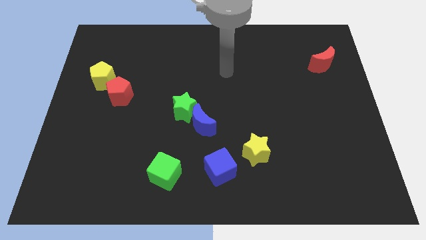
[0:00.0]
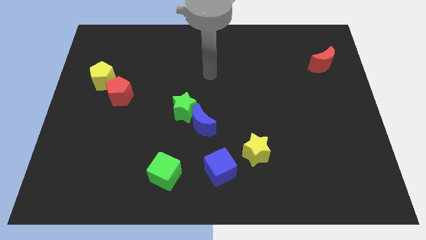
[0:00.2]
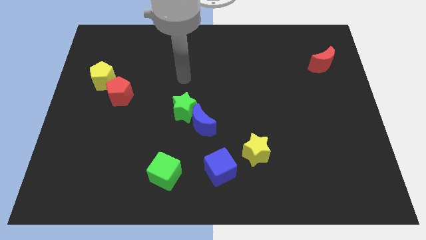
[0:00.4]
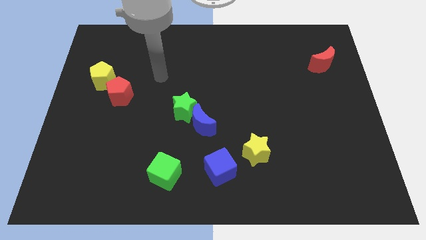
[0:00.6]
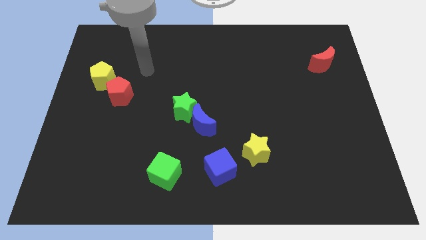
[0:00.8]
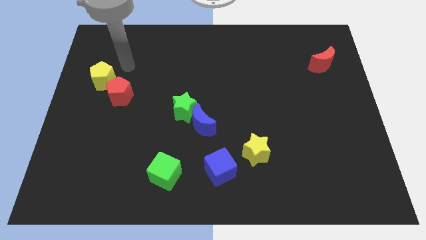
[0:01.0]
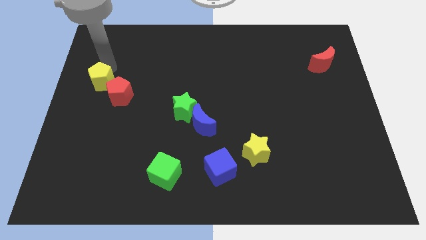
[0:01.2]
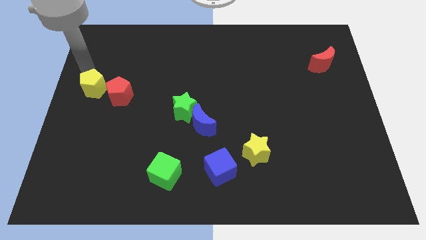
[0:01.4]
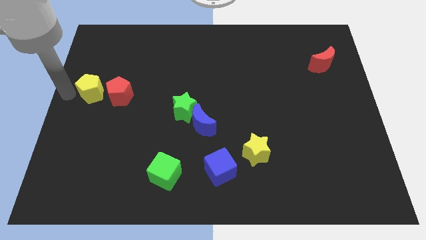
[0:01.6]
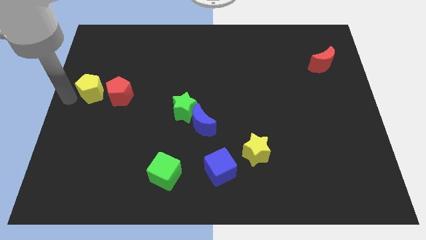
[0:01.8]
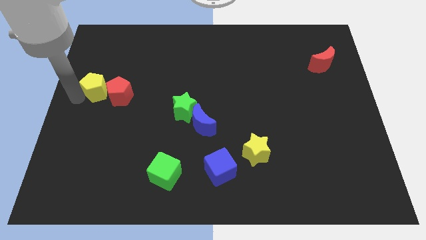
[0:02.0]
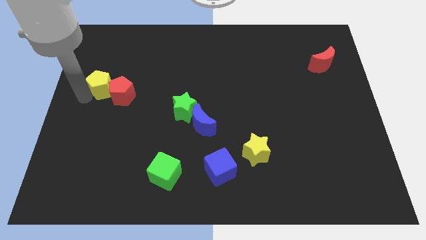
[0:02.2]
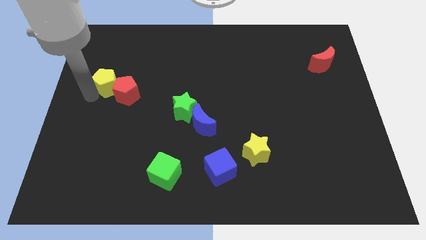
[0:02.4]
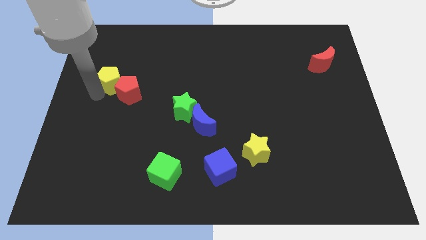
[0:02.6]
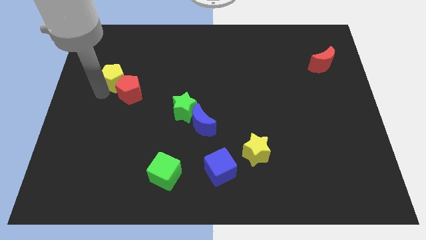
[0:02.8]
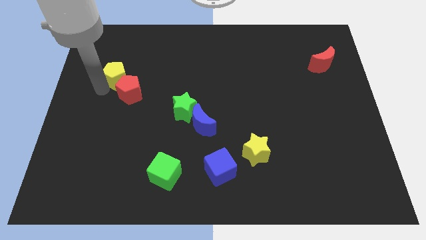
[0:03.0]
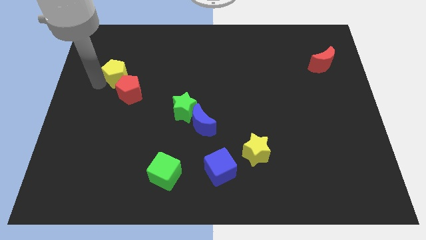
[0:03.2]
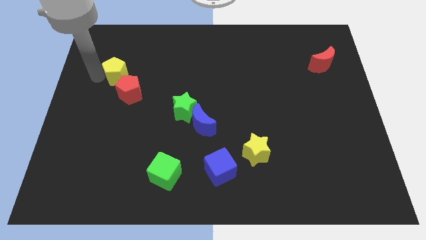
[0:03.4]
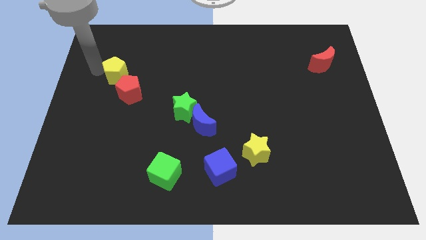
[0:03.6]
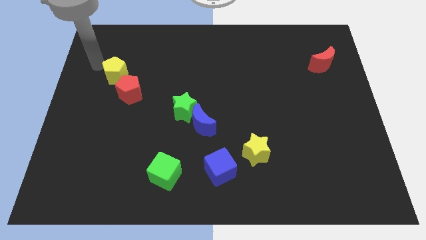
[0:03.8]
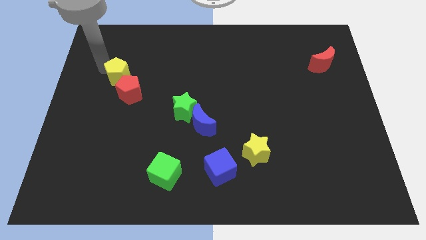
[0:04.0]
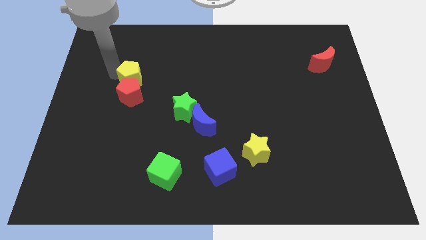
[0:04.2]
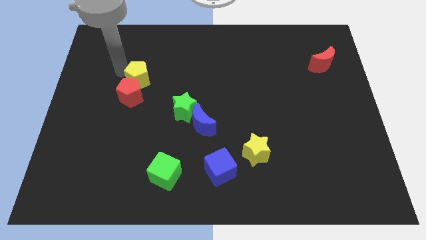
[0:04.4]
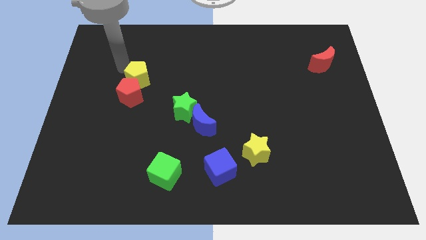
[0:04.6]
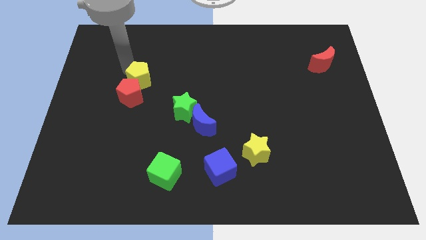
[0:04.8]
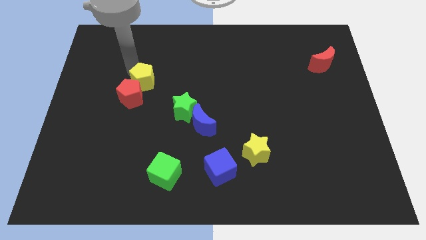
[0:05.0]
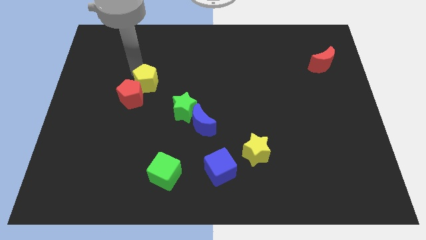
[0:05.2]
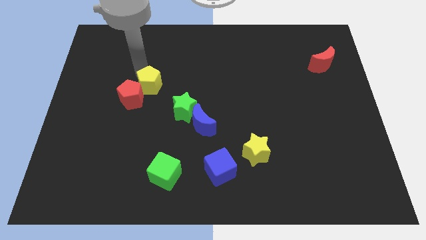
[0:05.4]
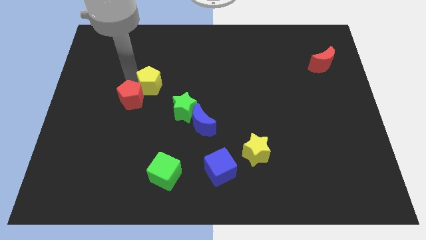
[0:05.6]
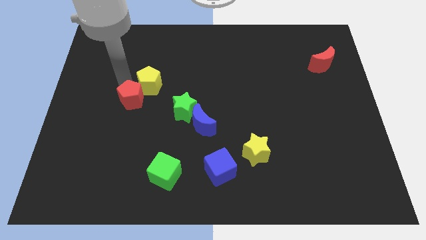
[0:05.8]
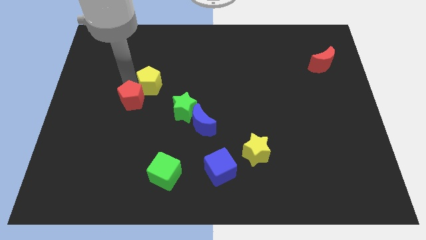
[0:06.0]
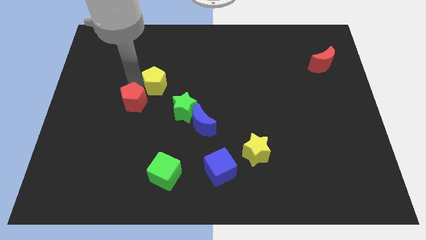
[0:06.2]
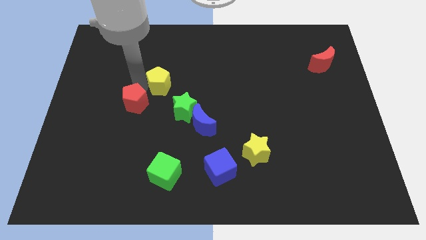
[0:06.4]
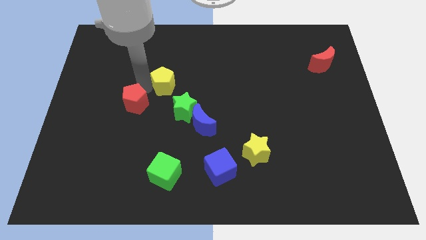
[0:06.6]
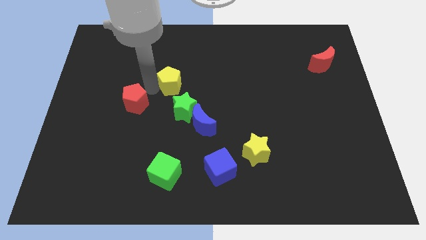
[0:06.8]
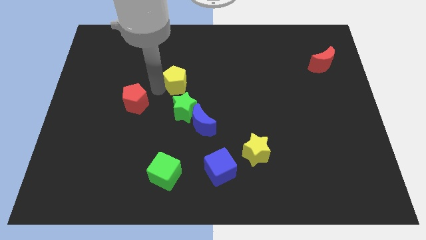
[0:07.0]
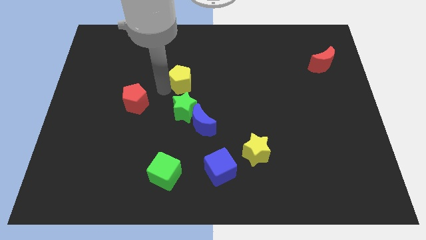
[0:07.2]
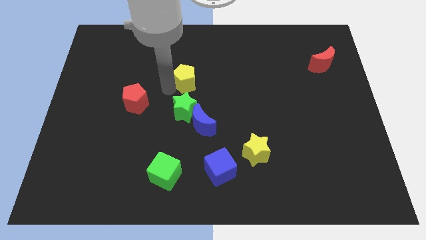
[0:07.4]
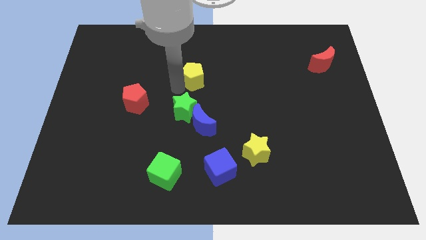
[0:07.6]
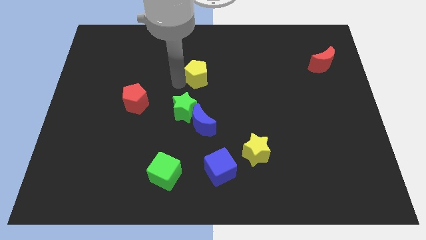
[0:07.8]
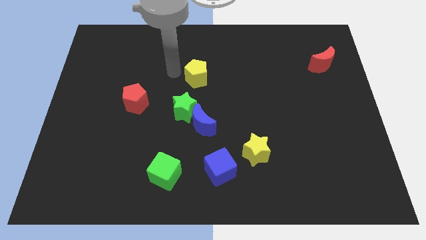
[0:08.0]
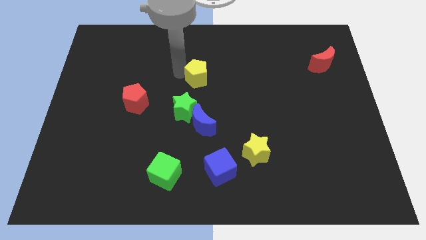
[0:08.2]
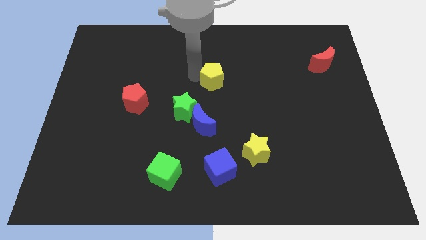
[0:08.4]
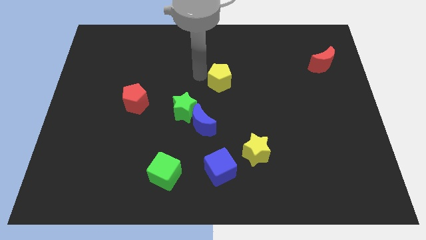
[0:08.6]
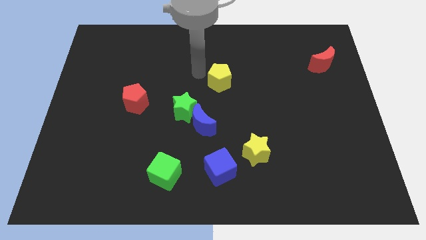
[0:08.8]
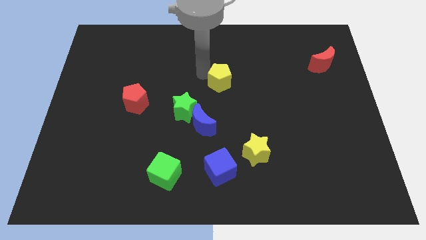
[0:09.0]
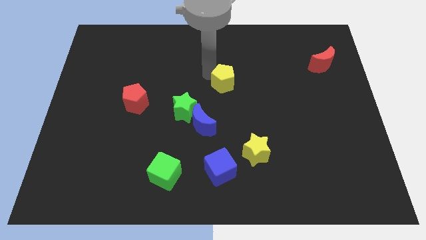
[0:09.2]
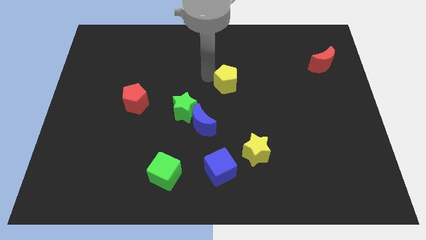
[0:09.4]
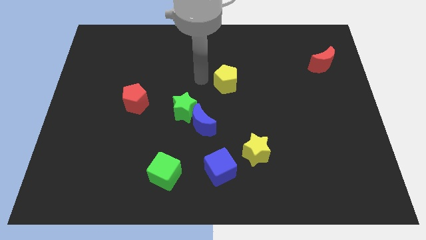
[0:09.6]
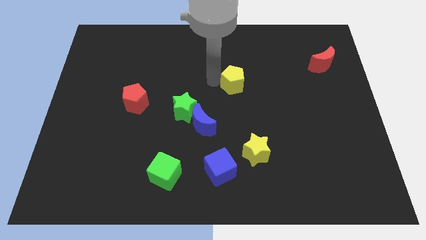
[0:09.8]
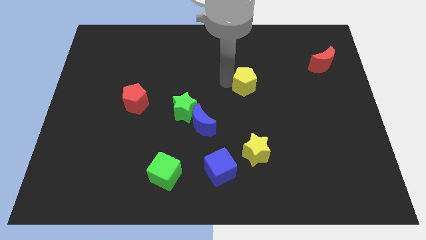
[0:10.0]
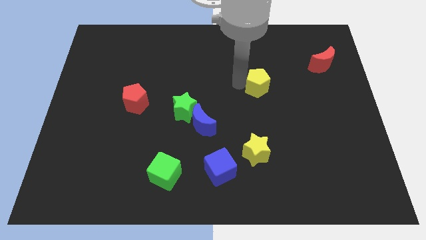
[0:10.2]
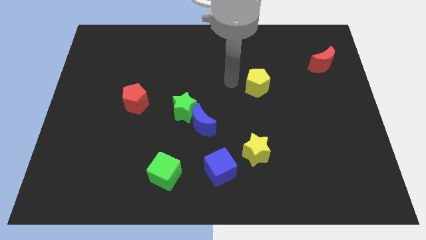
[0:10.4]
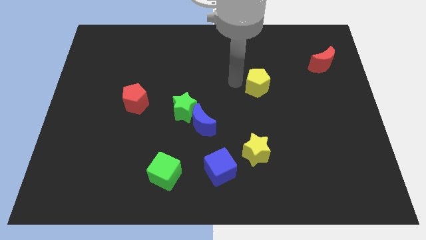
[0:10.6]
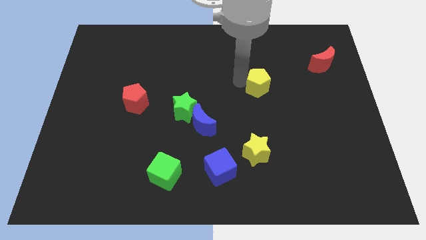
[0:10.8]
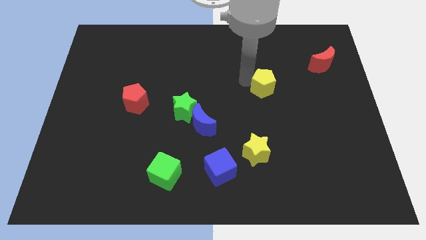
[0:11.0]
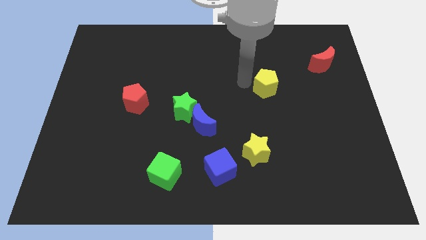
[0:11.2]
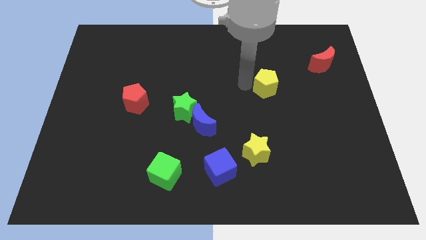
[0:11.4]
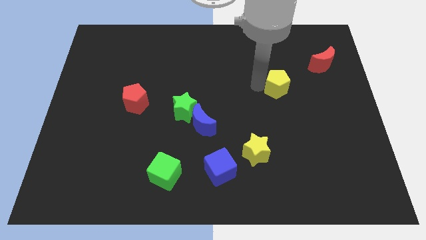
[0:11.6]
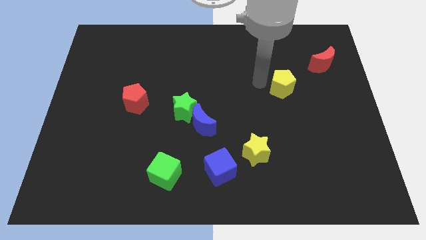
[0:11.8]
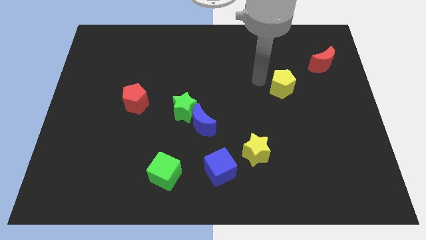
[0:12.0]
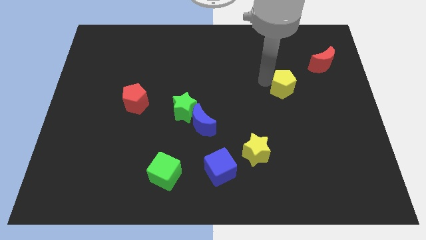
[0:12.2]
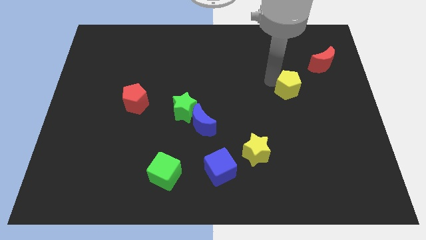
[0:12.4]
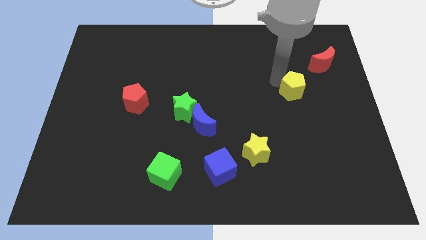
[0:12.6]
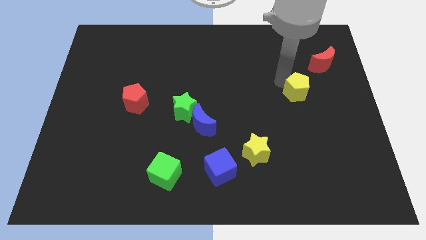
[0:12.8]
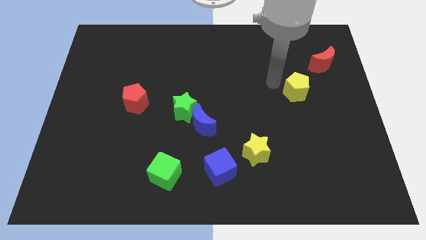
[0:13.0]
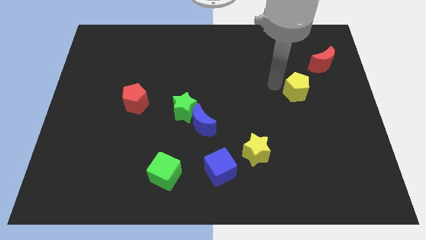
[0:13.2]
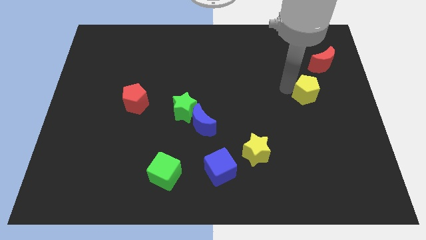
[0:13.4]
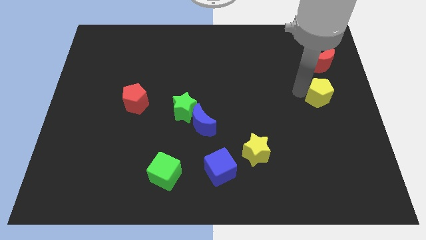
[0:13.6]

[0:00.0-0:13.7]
move the yellow pentagon to the right side
